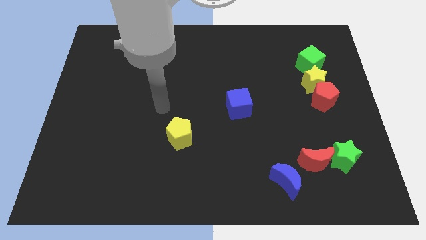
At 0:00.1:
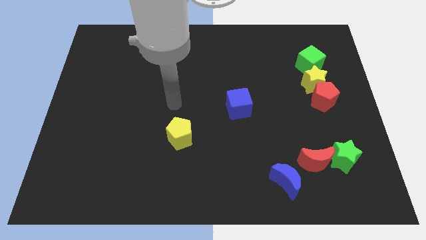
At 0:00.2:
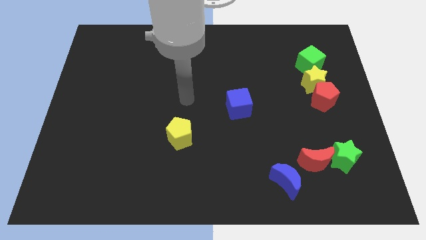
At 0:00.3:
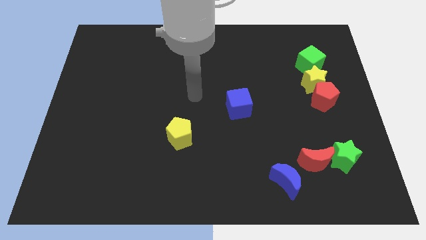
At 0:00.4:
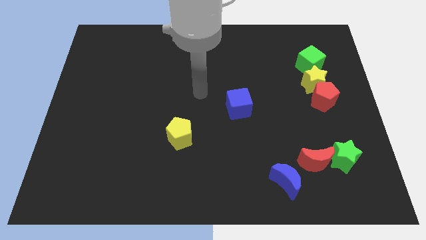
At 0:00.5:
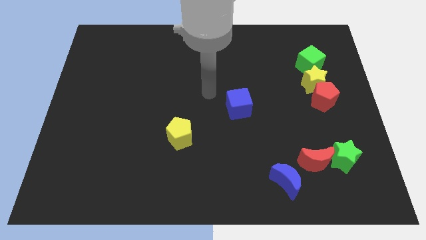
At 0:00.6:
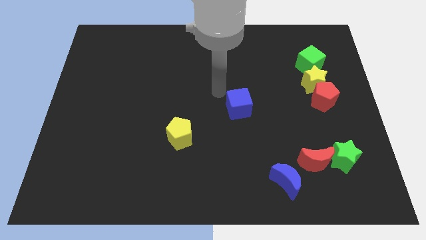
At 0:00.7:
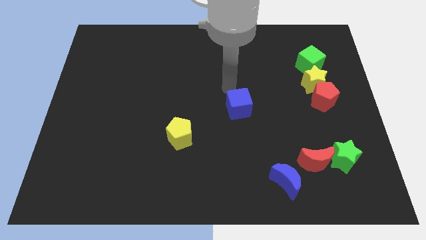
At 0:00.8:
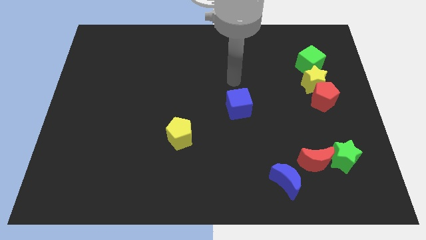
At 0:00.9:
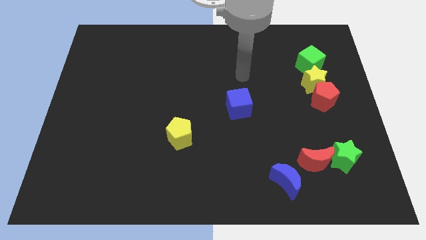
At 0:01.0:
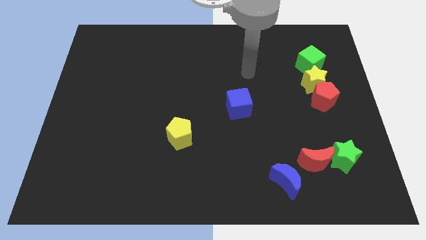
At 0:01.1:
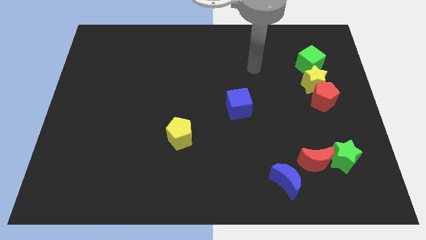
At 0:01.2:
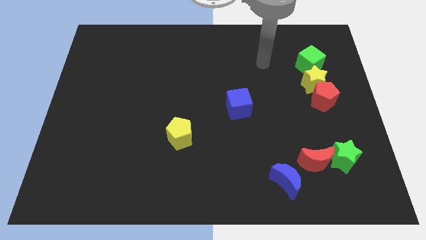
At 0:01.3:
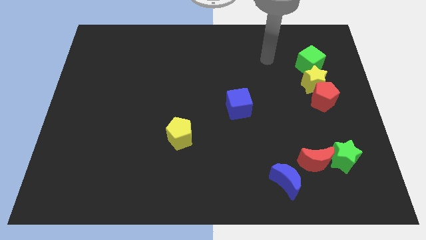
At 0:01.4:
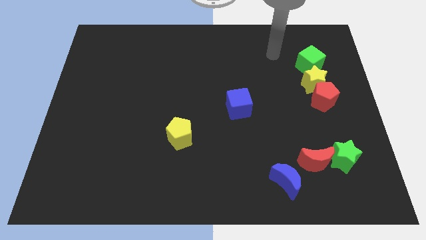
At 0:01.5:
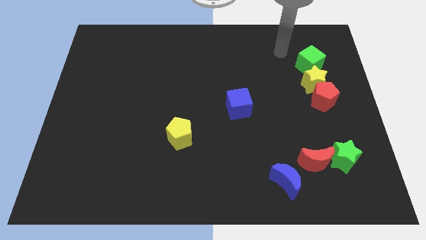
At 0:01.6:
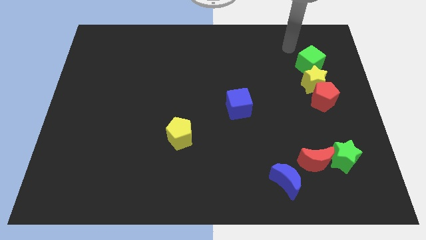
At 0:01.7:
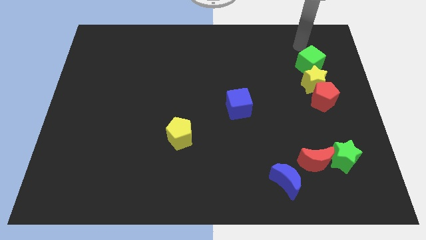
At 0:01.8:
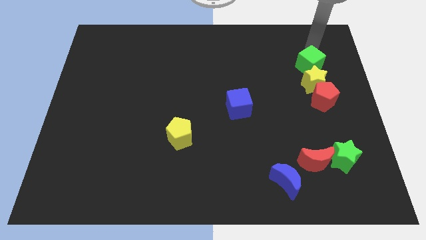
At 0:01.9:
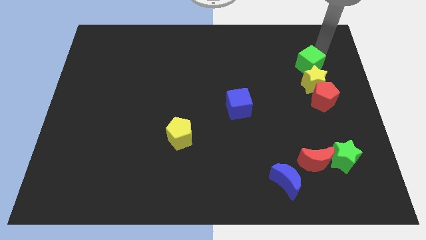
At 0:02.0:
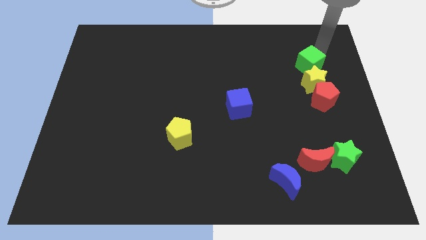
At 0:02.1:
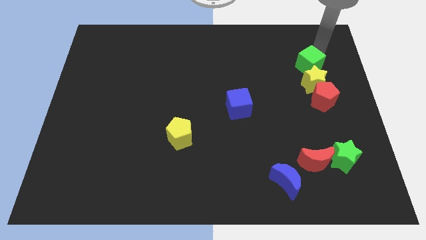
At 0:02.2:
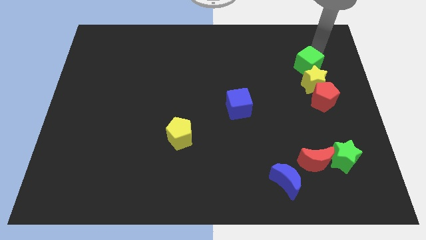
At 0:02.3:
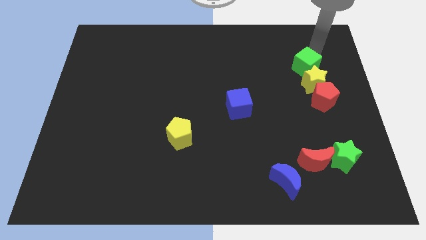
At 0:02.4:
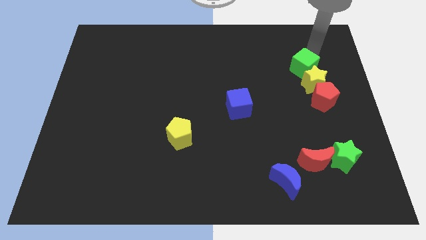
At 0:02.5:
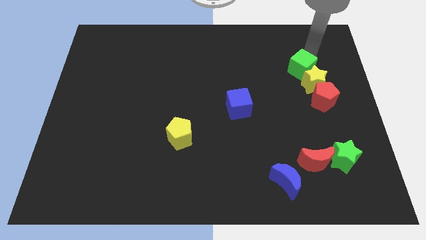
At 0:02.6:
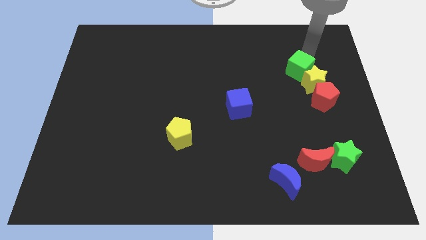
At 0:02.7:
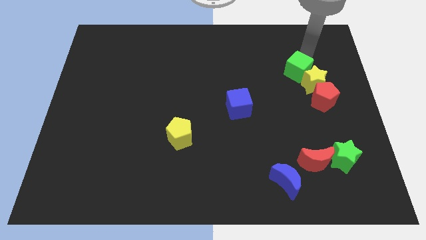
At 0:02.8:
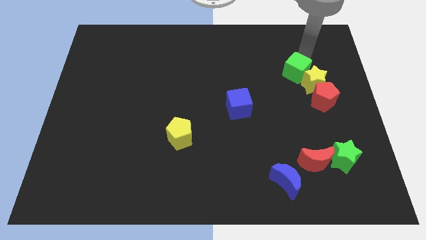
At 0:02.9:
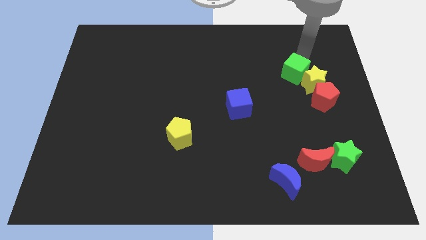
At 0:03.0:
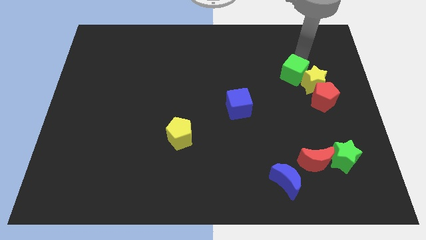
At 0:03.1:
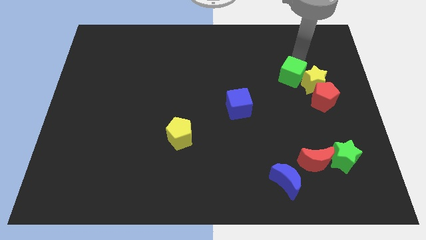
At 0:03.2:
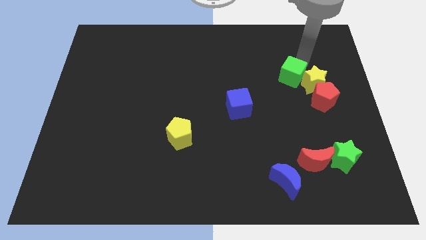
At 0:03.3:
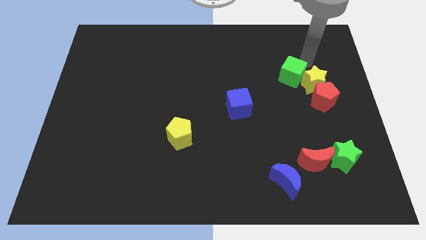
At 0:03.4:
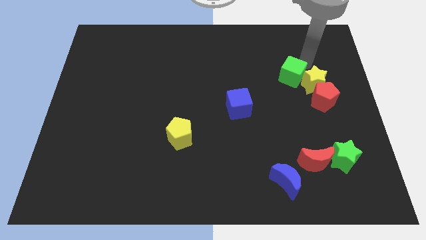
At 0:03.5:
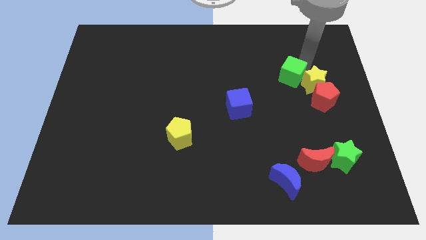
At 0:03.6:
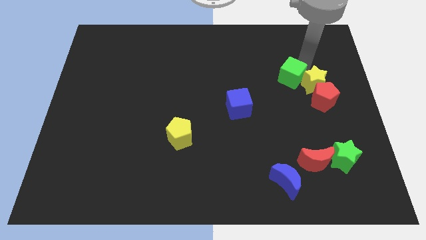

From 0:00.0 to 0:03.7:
slightly move the green cube downwards and left

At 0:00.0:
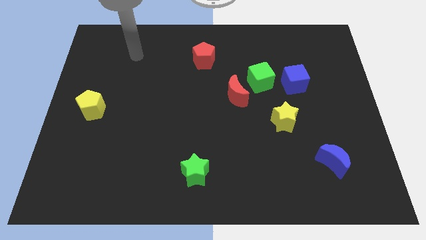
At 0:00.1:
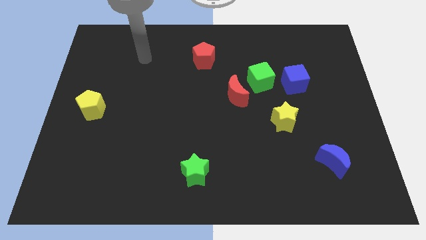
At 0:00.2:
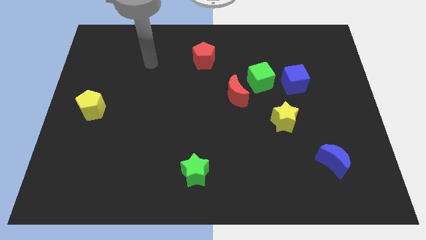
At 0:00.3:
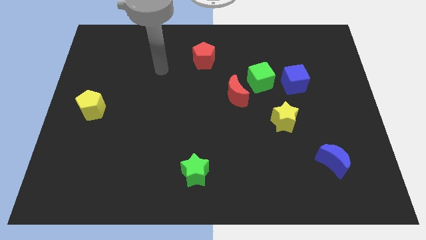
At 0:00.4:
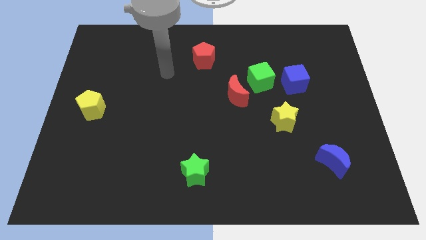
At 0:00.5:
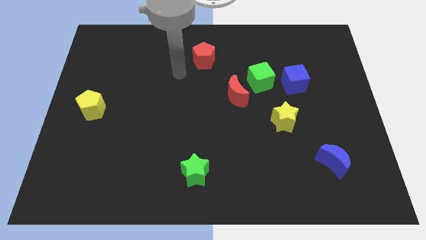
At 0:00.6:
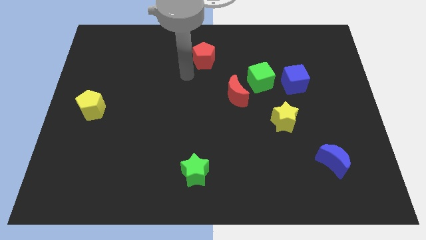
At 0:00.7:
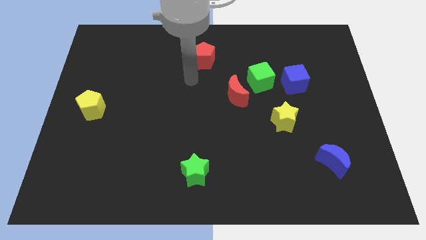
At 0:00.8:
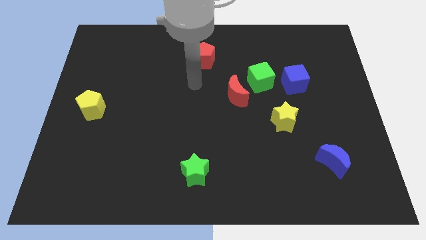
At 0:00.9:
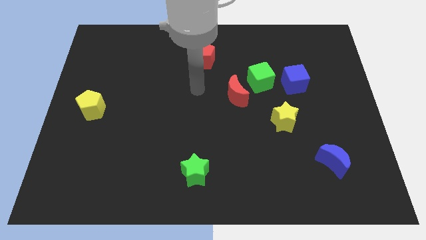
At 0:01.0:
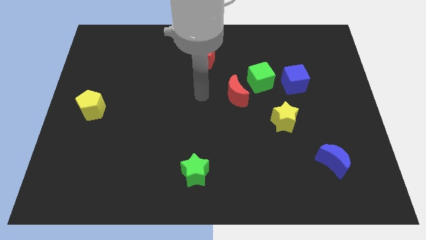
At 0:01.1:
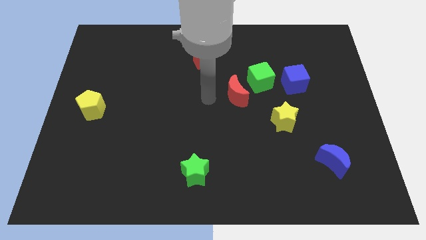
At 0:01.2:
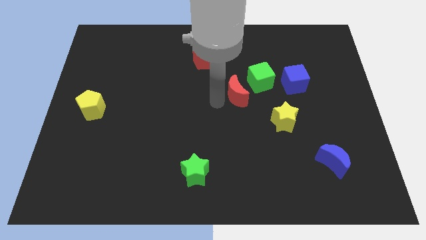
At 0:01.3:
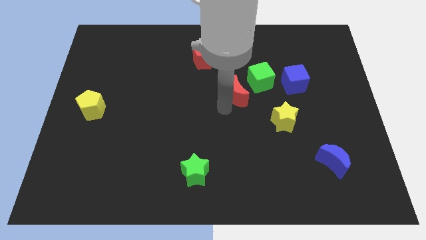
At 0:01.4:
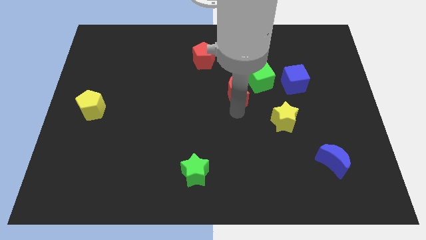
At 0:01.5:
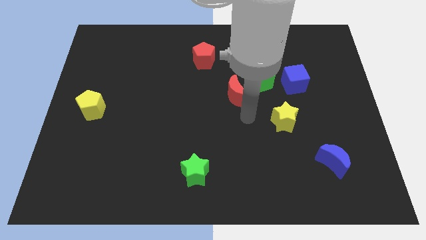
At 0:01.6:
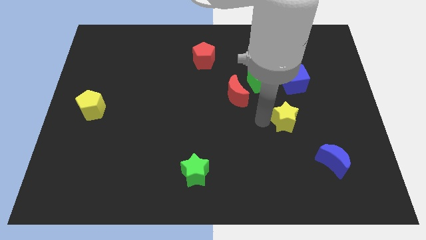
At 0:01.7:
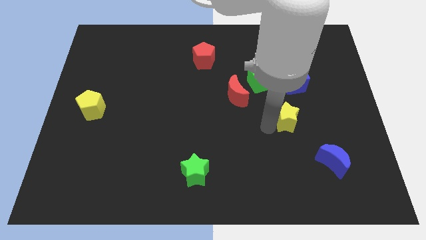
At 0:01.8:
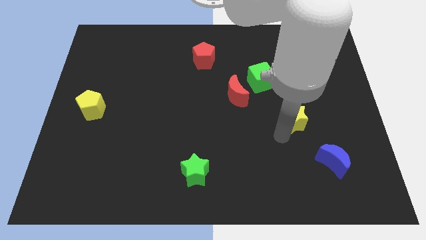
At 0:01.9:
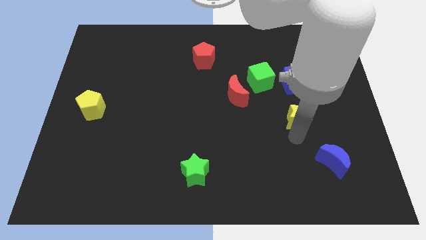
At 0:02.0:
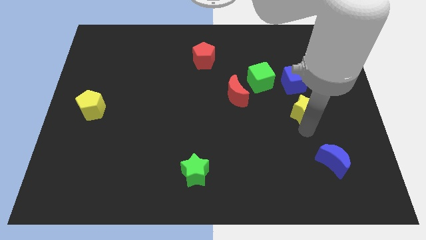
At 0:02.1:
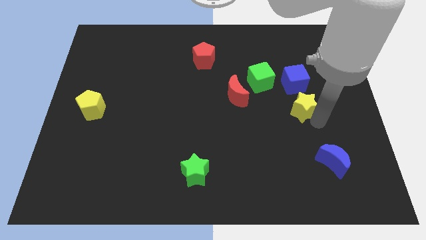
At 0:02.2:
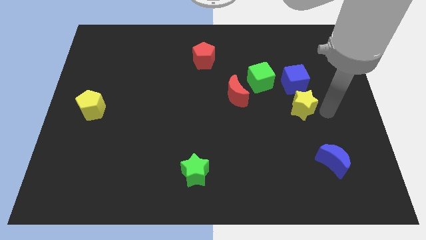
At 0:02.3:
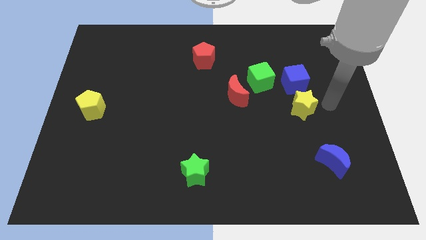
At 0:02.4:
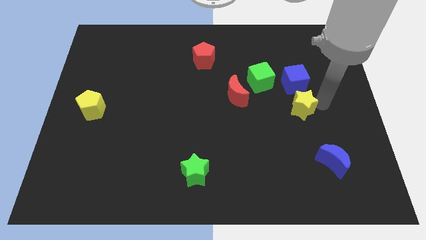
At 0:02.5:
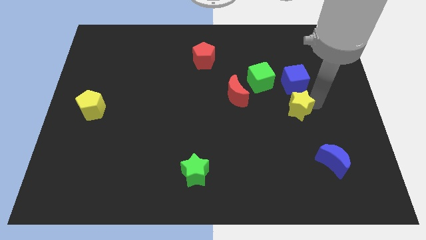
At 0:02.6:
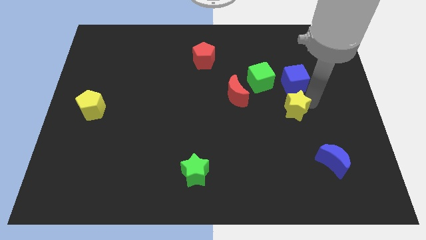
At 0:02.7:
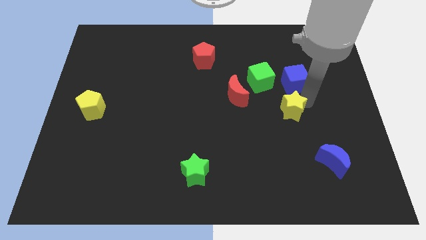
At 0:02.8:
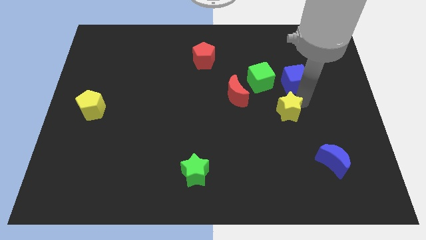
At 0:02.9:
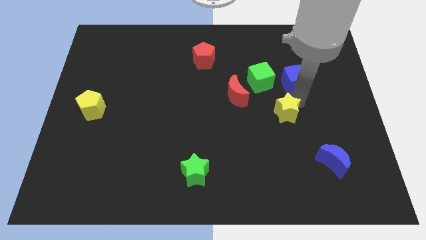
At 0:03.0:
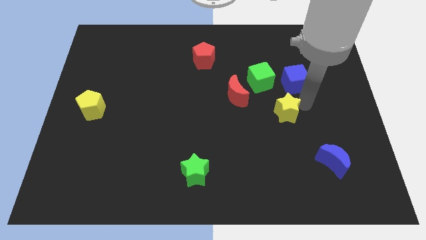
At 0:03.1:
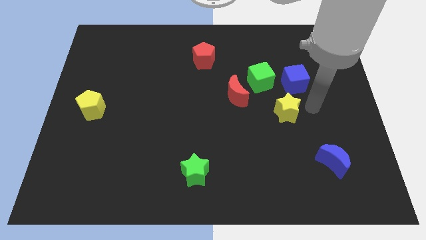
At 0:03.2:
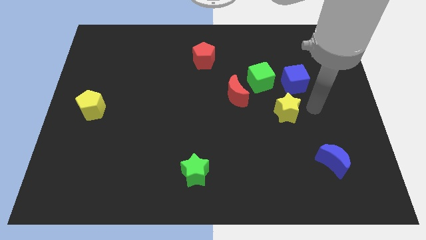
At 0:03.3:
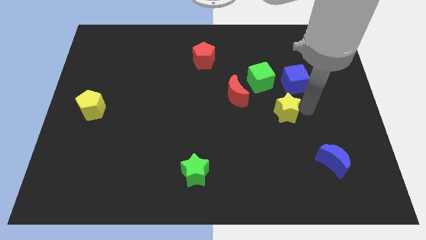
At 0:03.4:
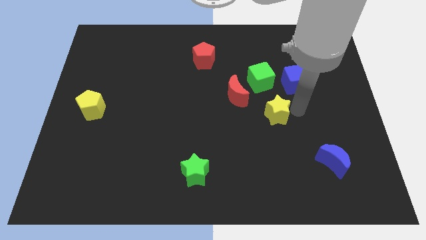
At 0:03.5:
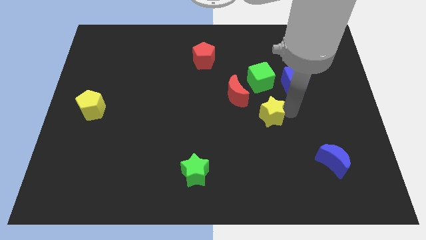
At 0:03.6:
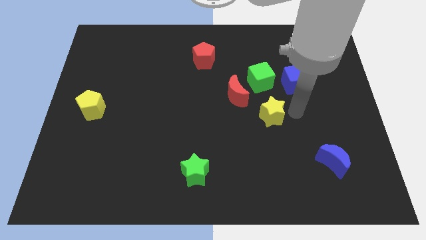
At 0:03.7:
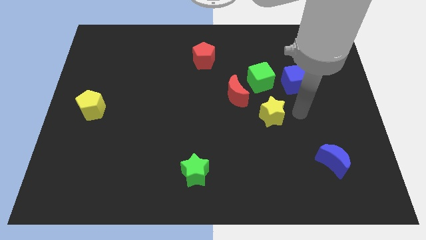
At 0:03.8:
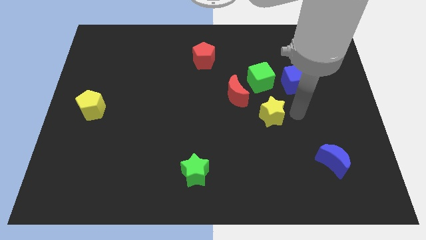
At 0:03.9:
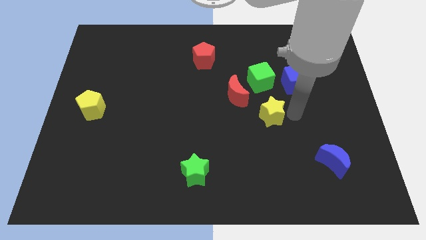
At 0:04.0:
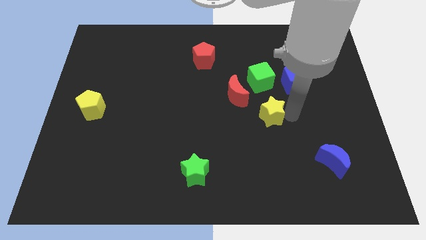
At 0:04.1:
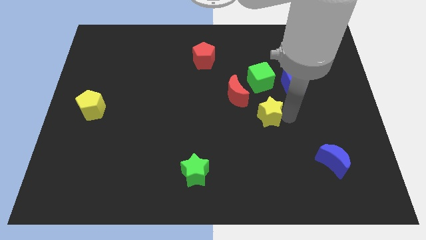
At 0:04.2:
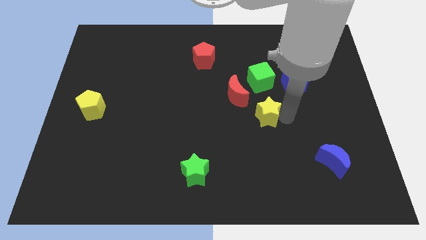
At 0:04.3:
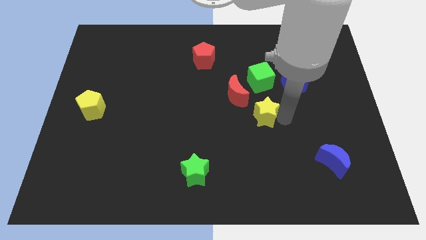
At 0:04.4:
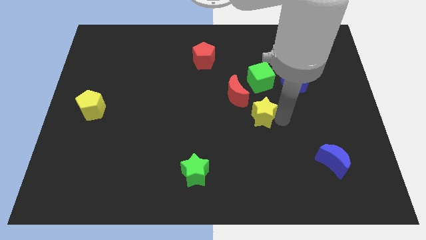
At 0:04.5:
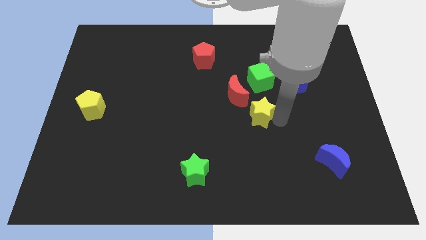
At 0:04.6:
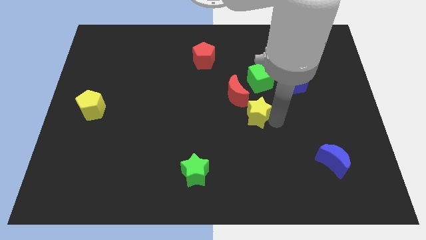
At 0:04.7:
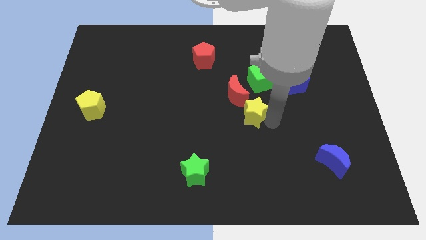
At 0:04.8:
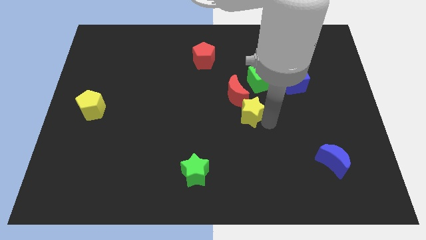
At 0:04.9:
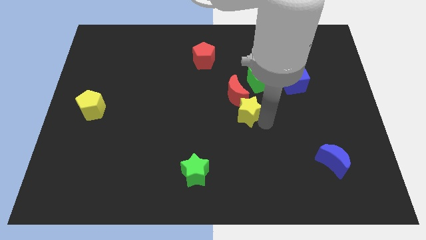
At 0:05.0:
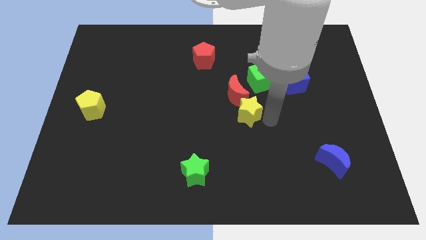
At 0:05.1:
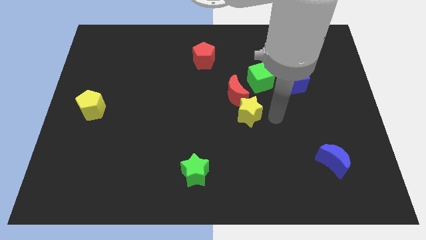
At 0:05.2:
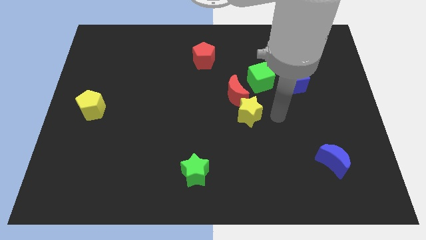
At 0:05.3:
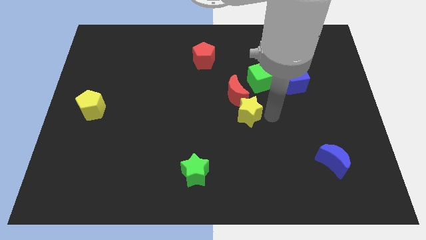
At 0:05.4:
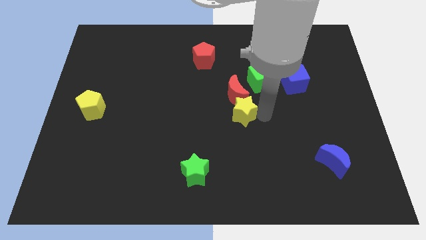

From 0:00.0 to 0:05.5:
slide the yellow star diagonally up and left somewhat
